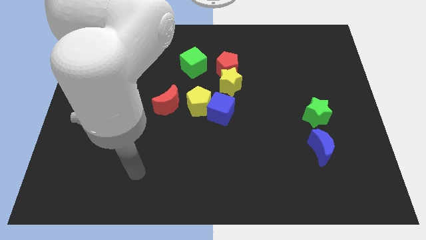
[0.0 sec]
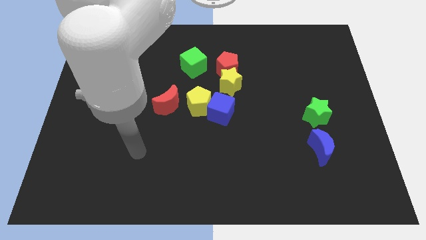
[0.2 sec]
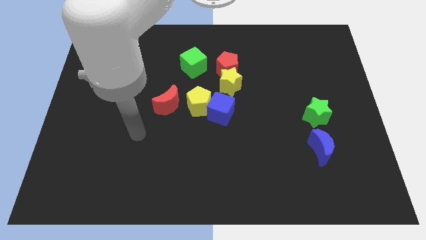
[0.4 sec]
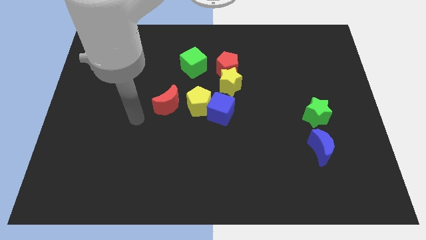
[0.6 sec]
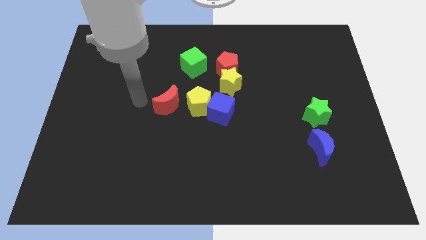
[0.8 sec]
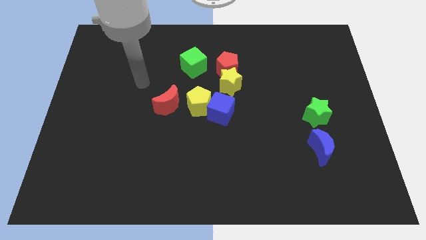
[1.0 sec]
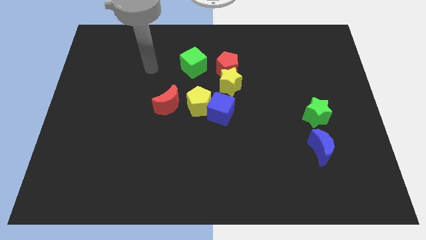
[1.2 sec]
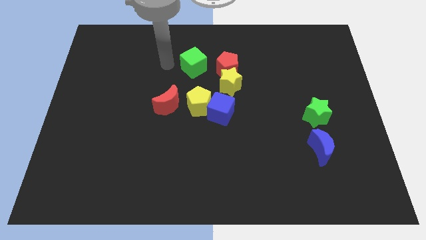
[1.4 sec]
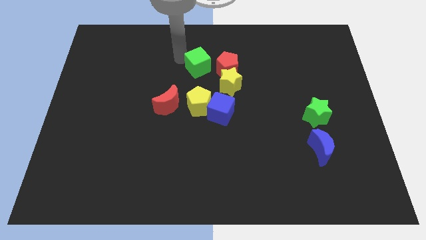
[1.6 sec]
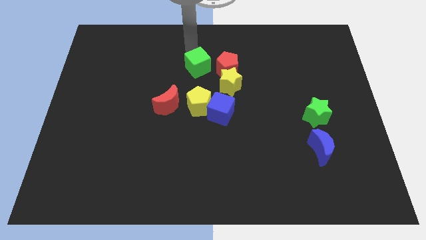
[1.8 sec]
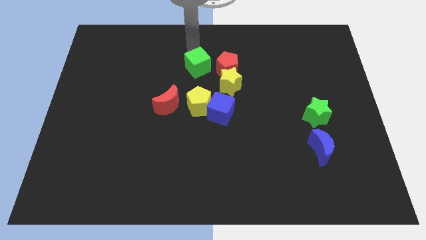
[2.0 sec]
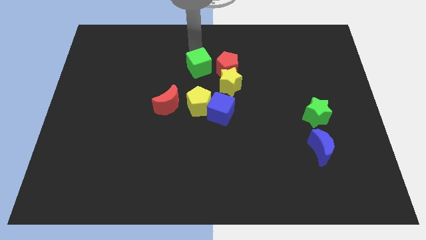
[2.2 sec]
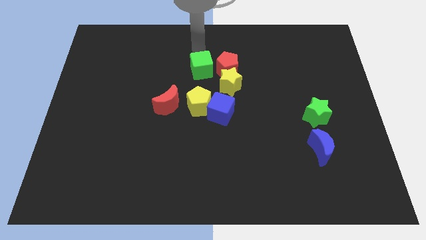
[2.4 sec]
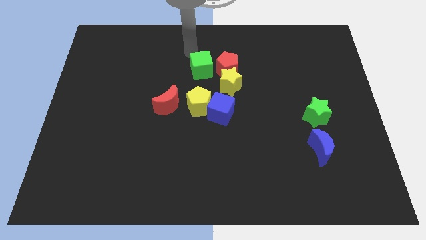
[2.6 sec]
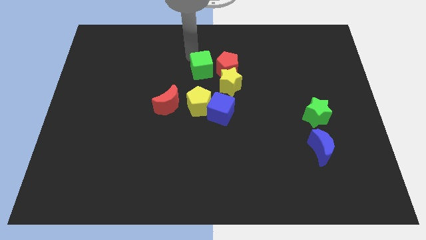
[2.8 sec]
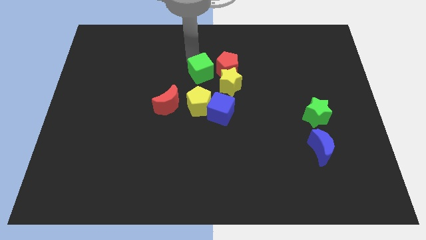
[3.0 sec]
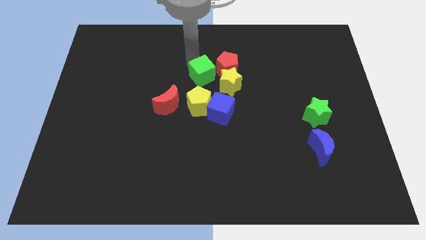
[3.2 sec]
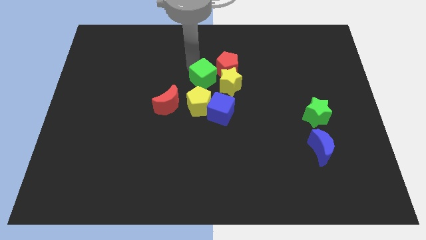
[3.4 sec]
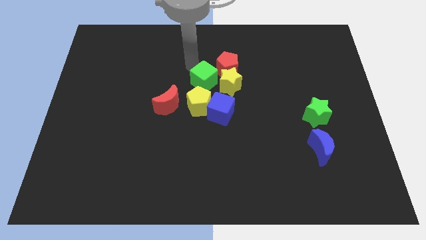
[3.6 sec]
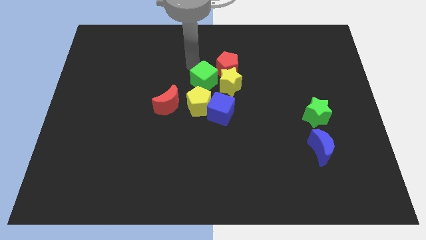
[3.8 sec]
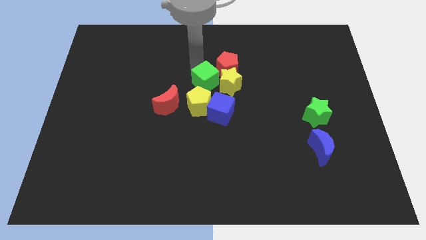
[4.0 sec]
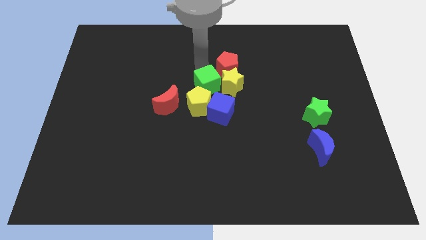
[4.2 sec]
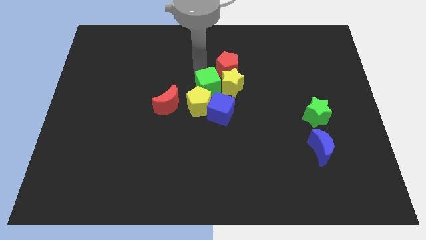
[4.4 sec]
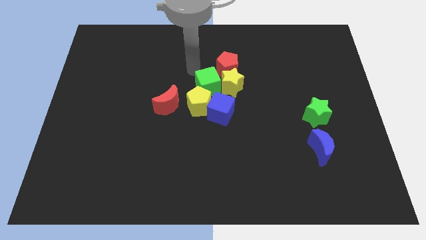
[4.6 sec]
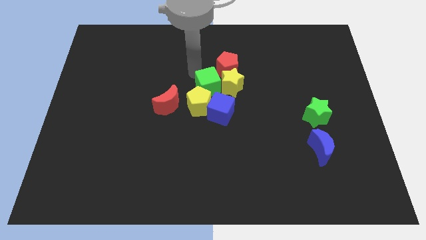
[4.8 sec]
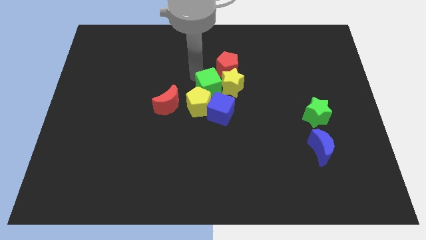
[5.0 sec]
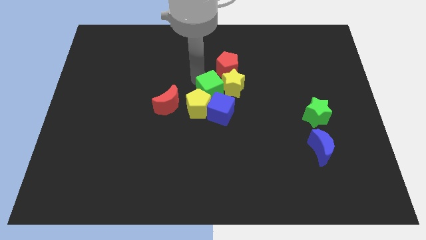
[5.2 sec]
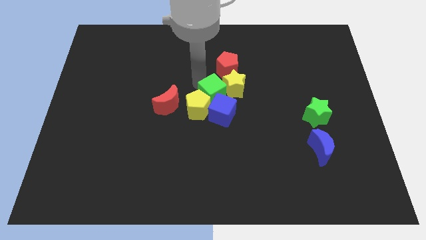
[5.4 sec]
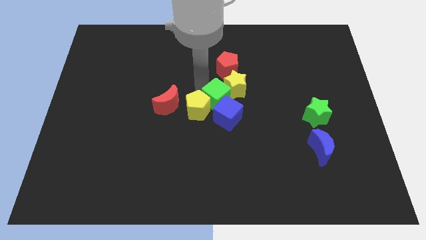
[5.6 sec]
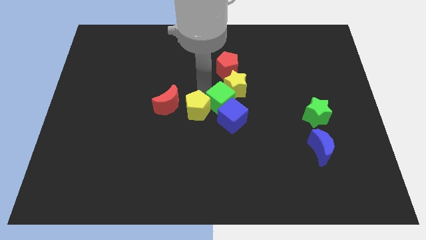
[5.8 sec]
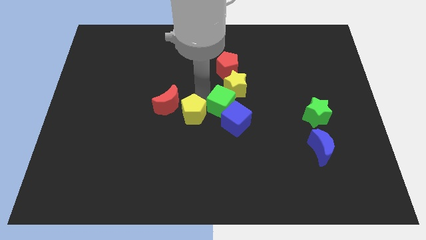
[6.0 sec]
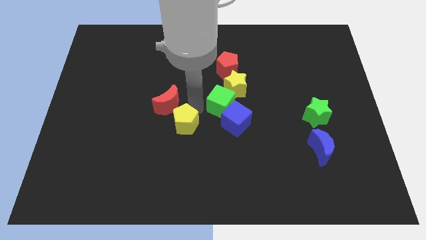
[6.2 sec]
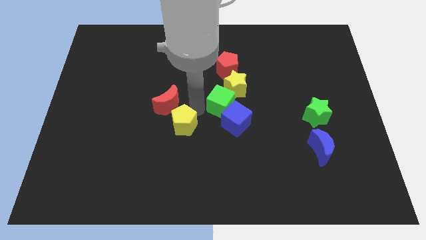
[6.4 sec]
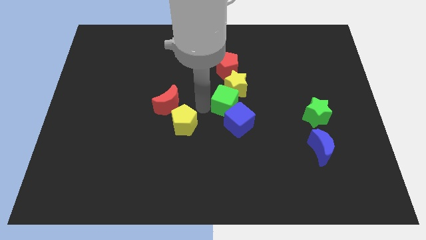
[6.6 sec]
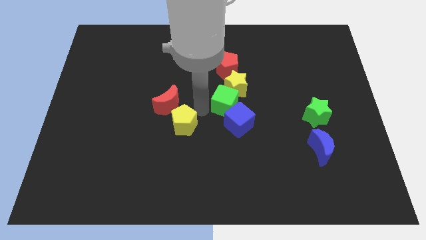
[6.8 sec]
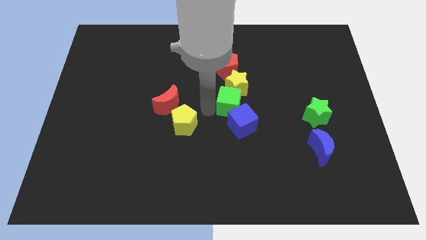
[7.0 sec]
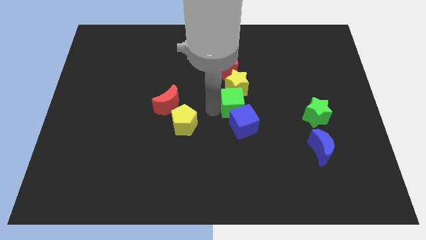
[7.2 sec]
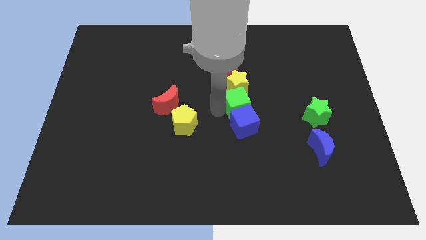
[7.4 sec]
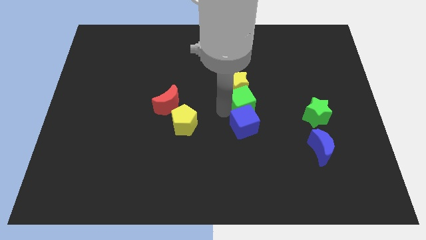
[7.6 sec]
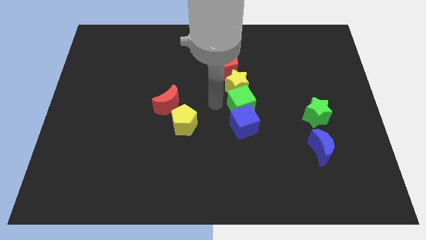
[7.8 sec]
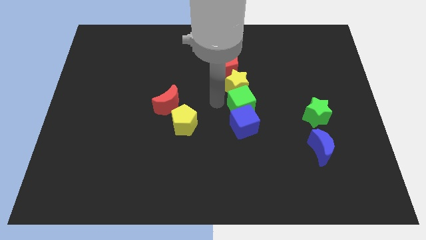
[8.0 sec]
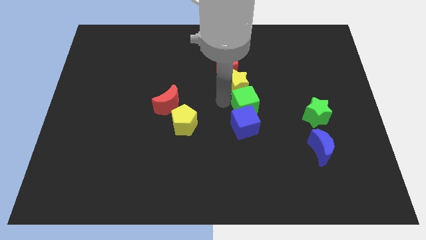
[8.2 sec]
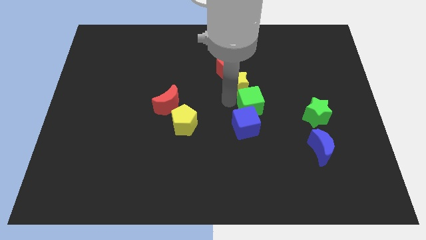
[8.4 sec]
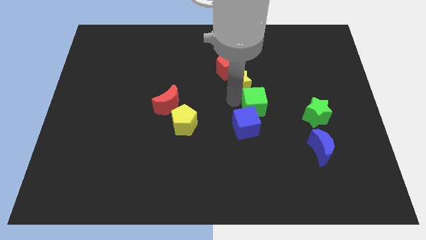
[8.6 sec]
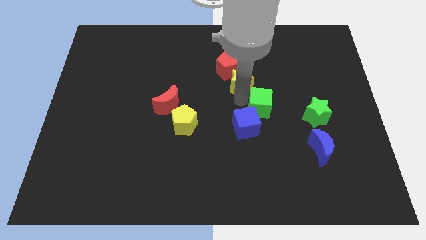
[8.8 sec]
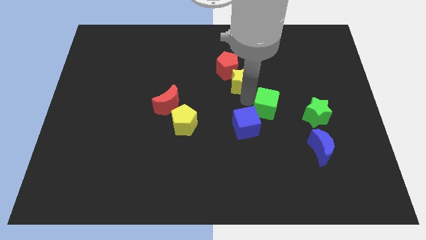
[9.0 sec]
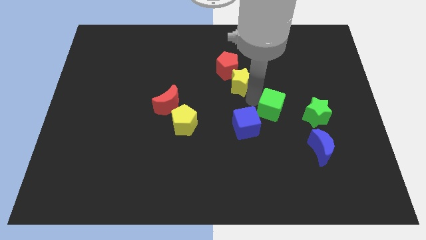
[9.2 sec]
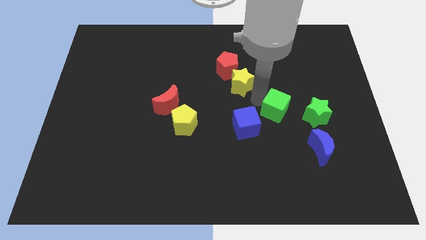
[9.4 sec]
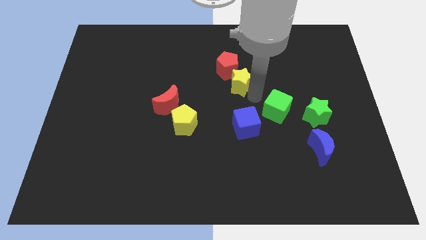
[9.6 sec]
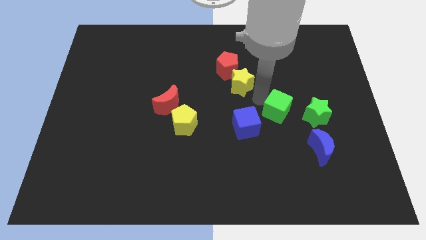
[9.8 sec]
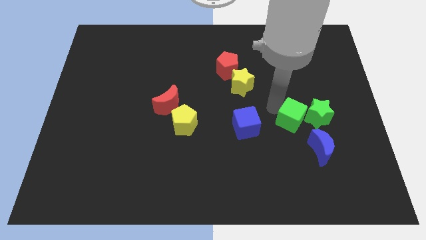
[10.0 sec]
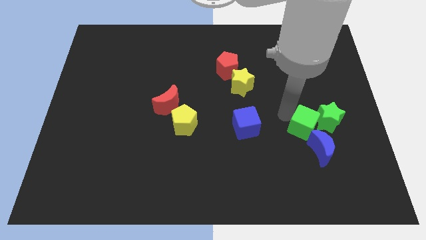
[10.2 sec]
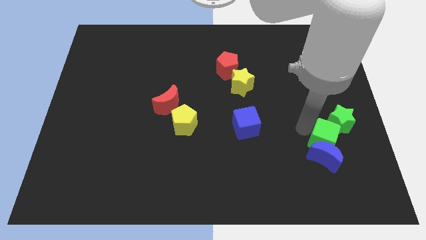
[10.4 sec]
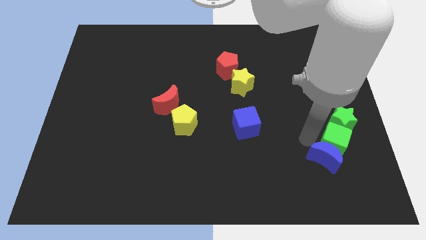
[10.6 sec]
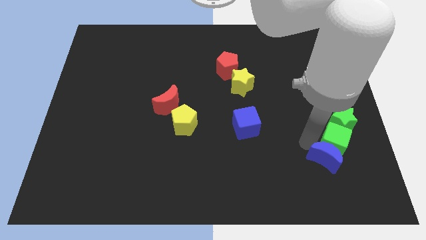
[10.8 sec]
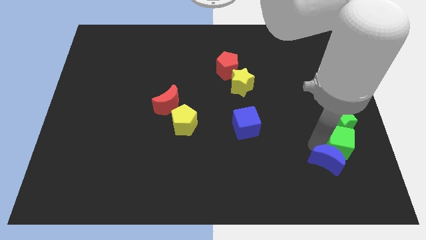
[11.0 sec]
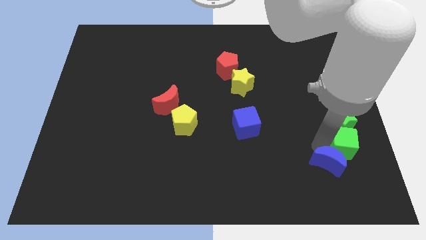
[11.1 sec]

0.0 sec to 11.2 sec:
put the green cube diagonally down and to the right of the green star
